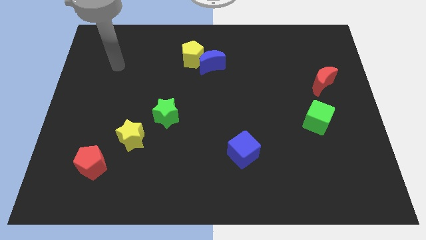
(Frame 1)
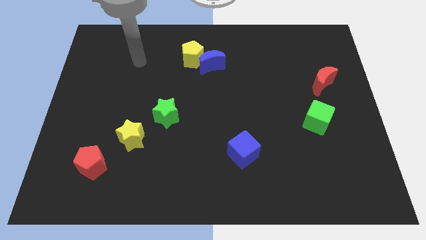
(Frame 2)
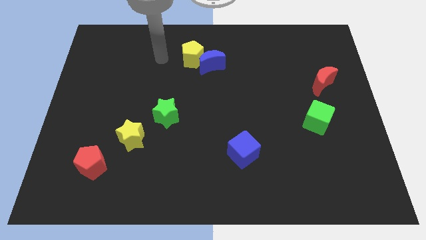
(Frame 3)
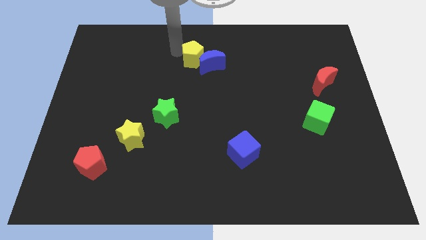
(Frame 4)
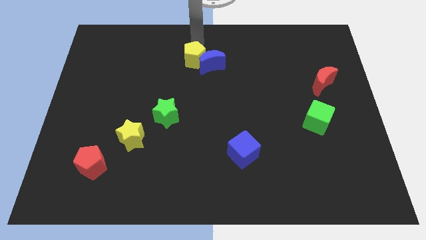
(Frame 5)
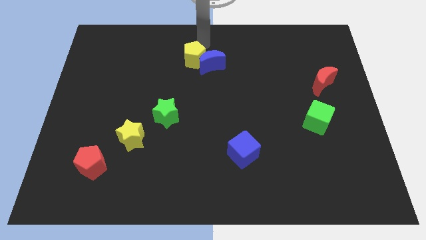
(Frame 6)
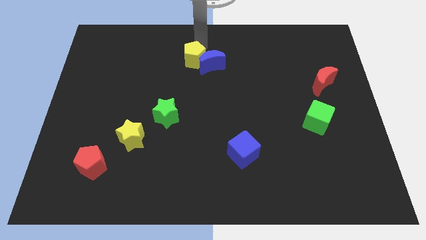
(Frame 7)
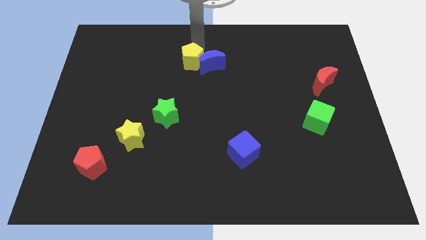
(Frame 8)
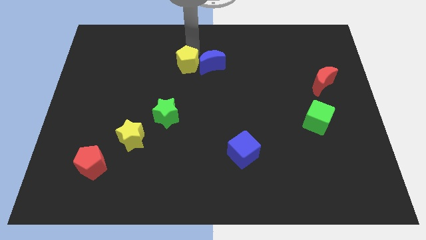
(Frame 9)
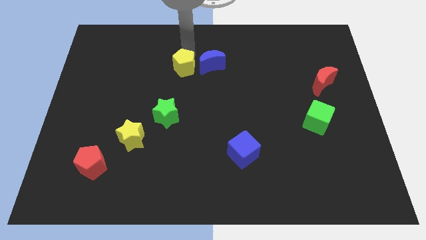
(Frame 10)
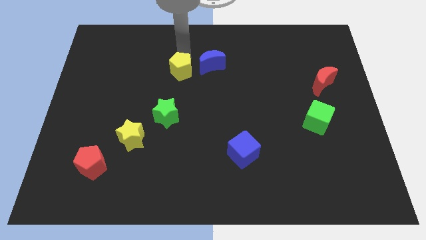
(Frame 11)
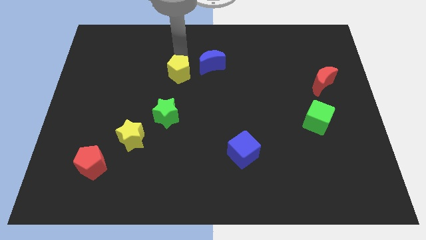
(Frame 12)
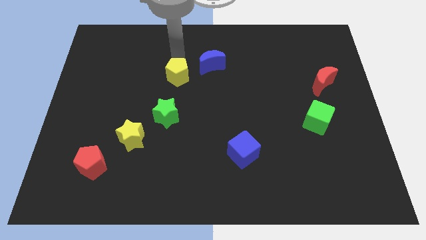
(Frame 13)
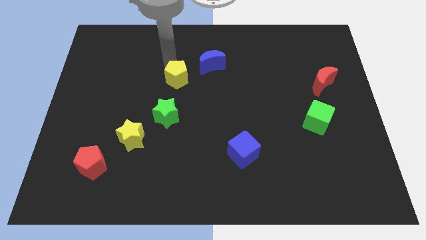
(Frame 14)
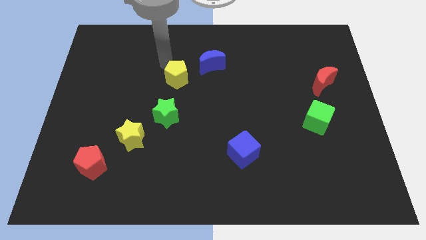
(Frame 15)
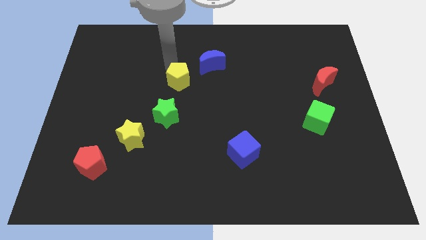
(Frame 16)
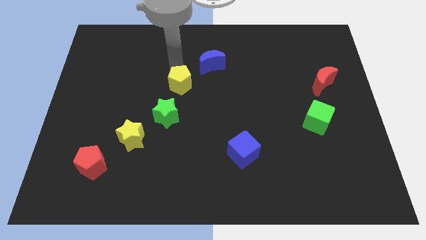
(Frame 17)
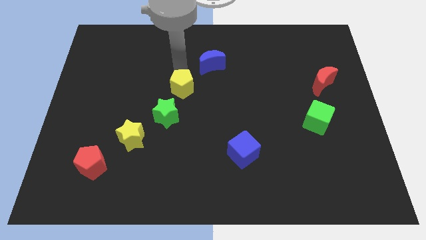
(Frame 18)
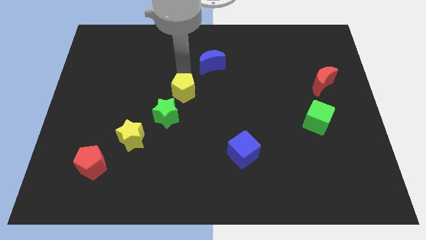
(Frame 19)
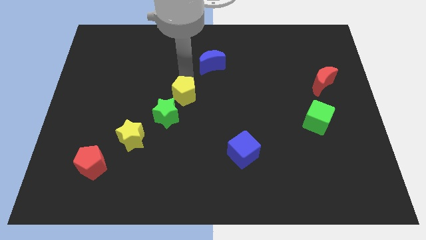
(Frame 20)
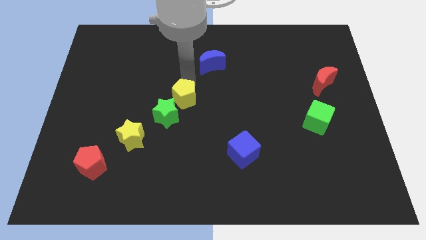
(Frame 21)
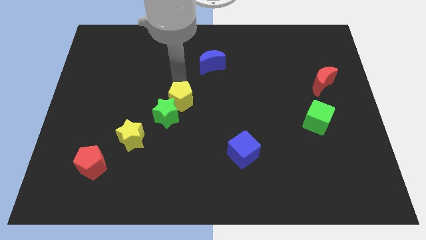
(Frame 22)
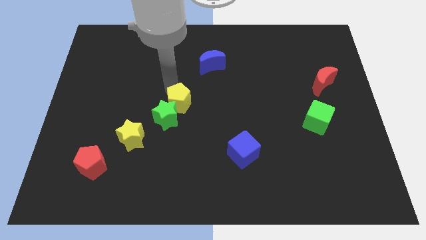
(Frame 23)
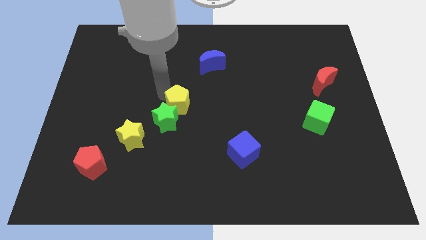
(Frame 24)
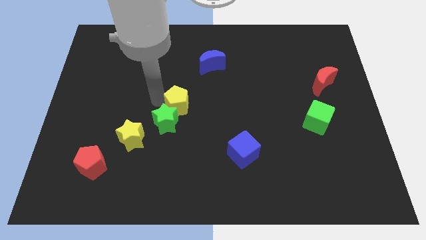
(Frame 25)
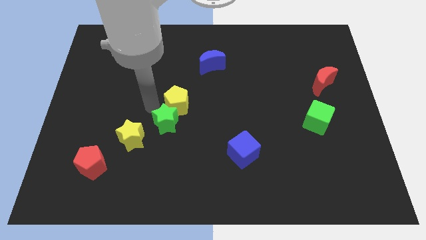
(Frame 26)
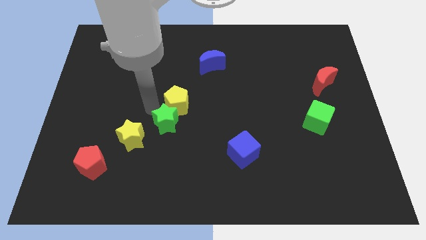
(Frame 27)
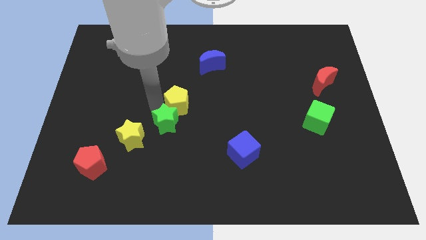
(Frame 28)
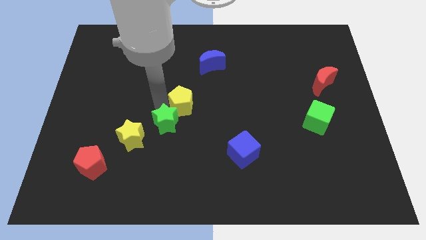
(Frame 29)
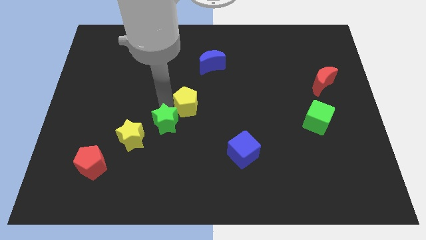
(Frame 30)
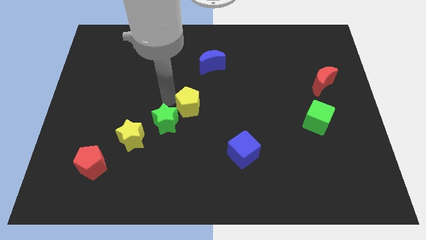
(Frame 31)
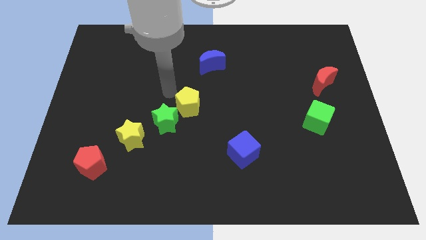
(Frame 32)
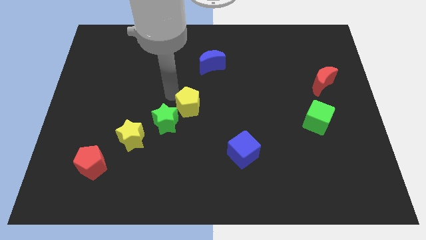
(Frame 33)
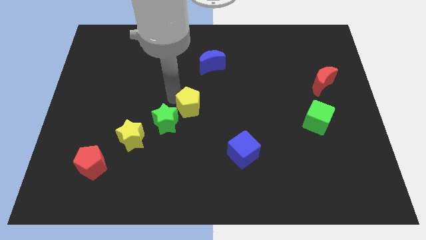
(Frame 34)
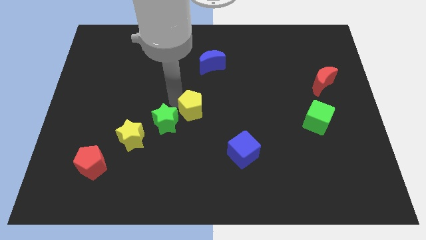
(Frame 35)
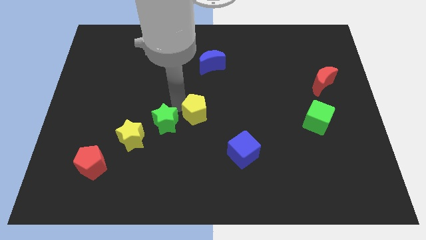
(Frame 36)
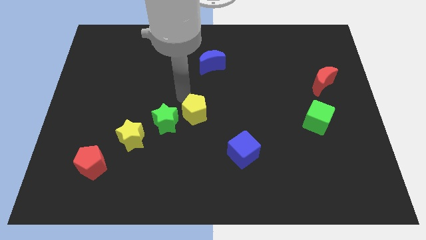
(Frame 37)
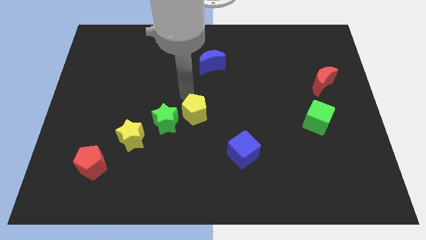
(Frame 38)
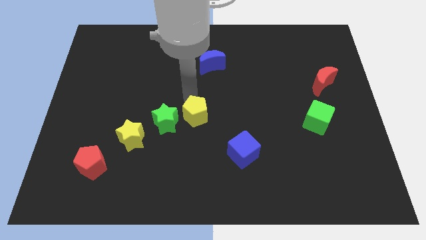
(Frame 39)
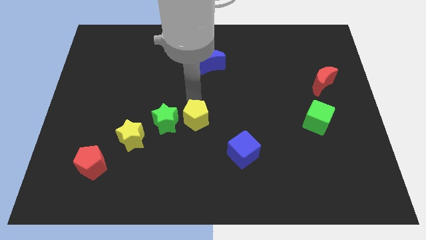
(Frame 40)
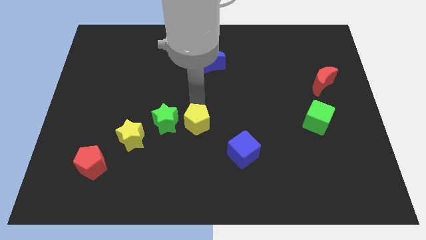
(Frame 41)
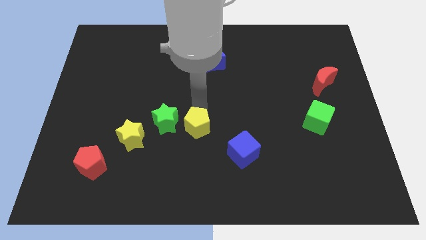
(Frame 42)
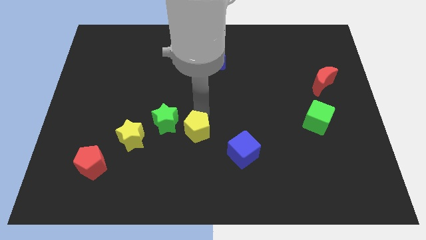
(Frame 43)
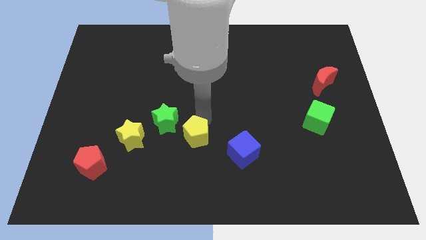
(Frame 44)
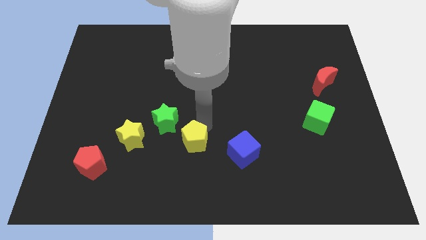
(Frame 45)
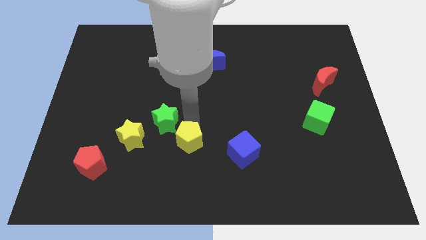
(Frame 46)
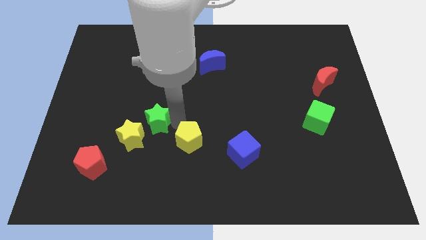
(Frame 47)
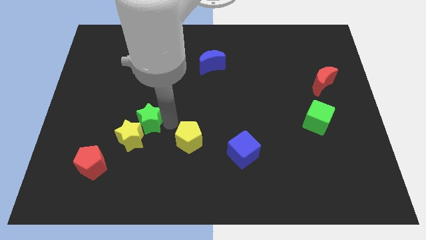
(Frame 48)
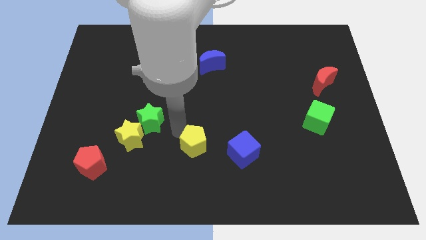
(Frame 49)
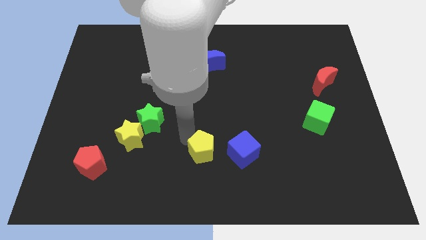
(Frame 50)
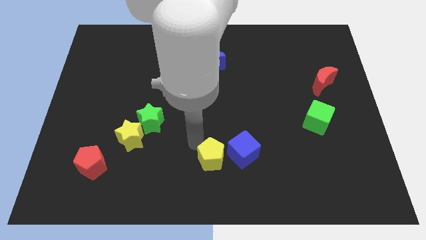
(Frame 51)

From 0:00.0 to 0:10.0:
slide the yellow pentagon to the bottom side

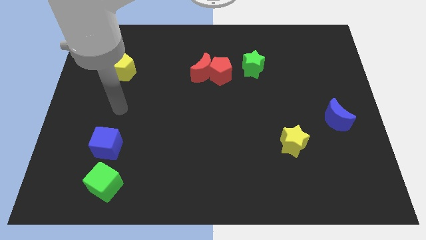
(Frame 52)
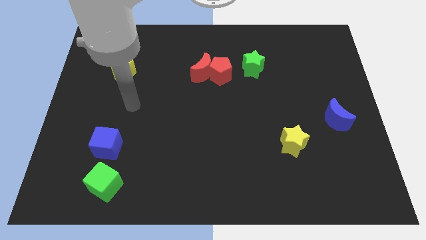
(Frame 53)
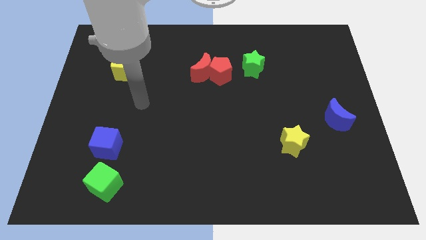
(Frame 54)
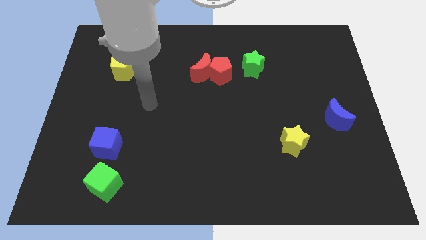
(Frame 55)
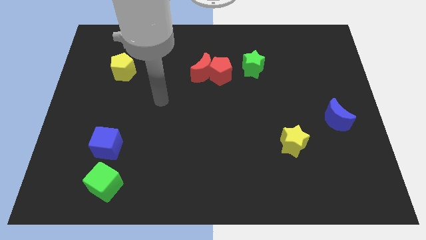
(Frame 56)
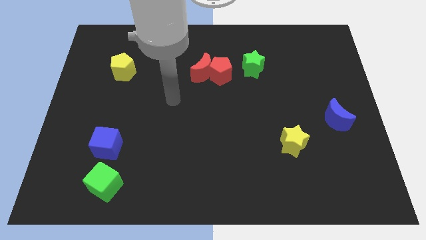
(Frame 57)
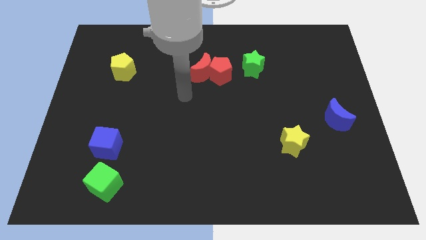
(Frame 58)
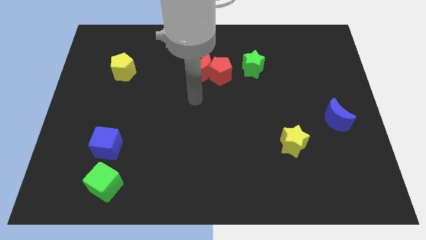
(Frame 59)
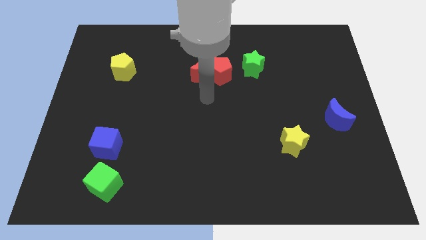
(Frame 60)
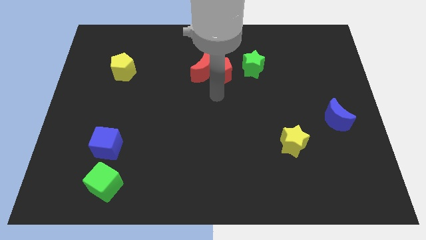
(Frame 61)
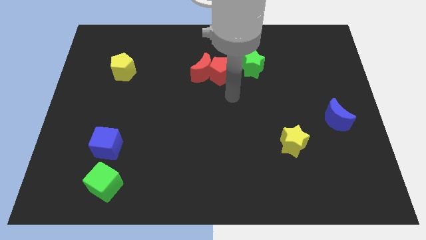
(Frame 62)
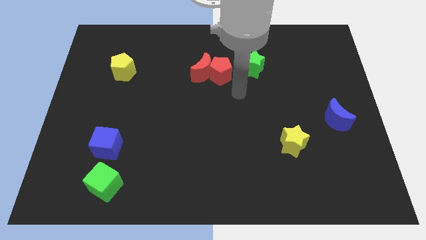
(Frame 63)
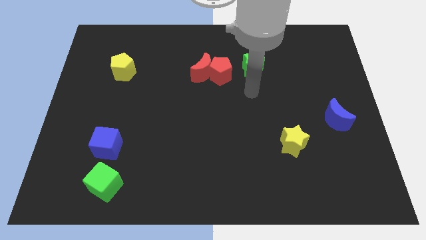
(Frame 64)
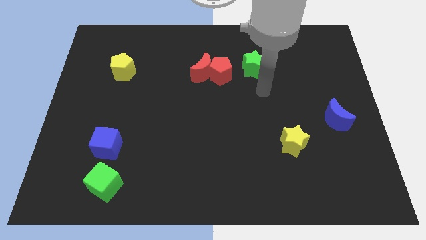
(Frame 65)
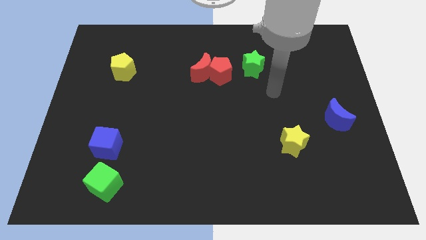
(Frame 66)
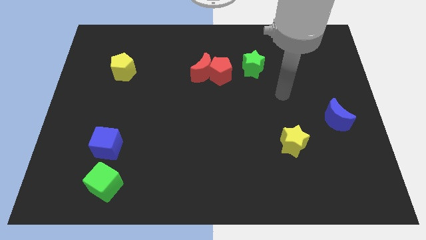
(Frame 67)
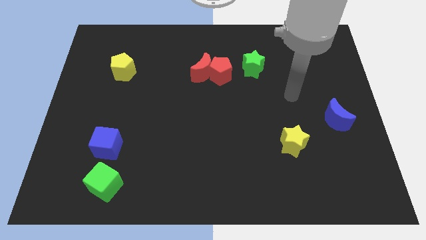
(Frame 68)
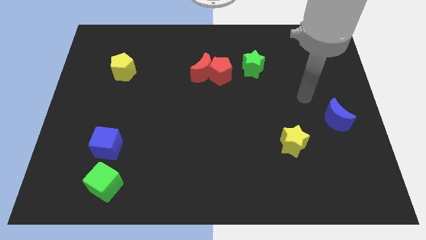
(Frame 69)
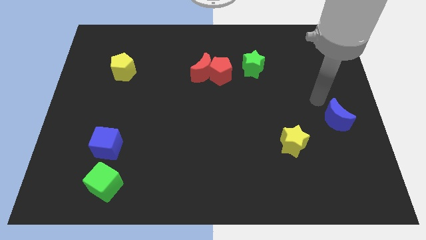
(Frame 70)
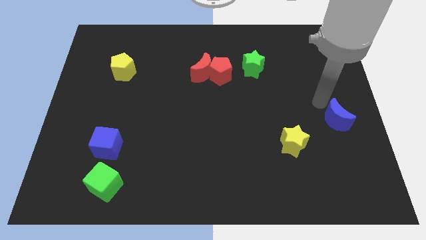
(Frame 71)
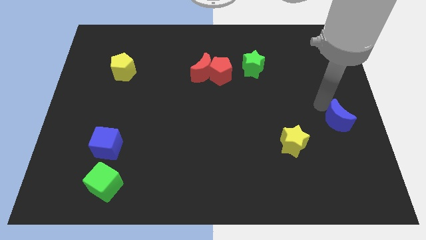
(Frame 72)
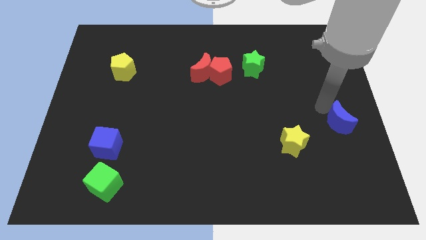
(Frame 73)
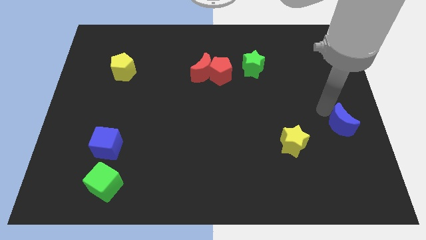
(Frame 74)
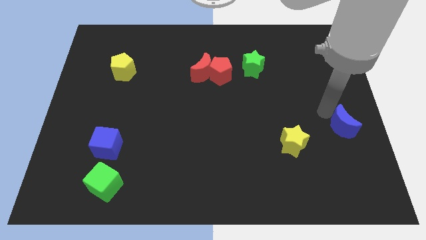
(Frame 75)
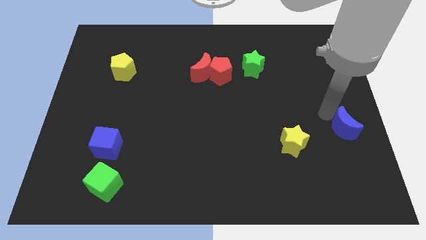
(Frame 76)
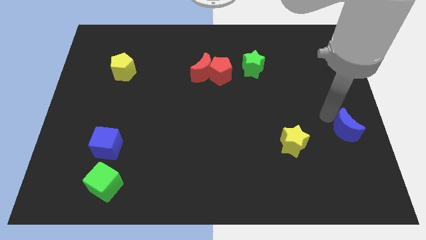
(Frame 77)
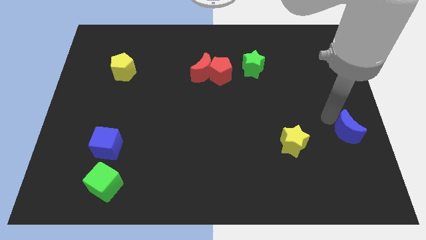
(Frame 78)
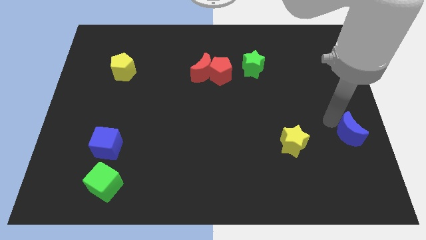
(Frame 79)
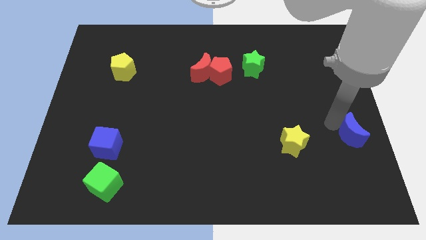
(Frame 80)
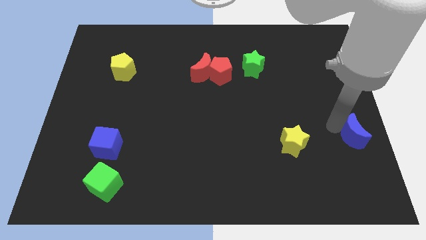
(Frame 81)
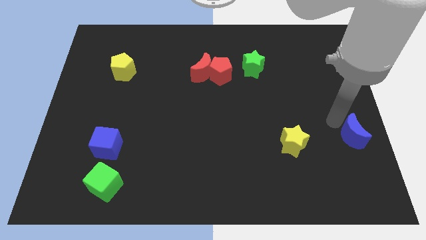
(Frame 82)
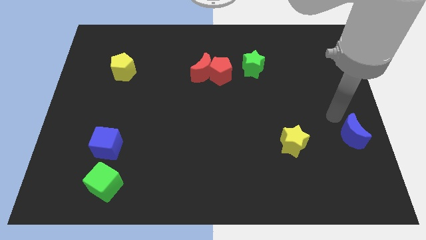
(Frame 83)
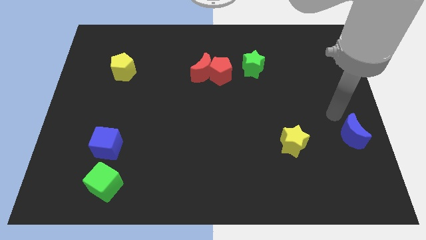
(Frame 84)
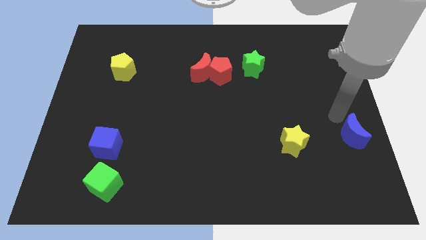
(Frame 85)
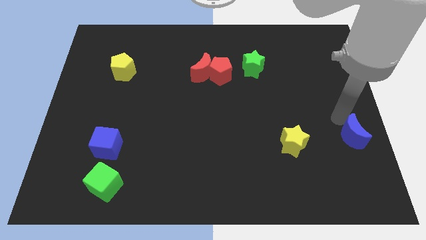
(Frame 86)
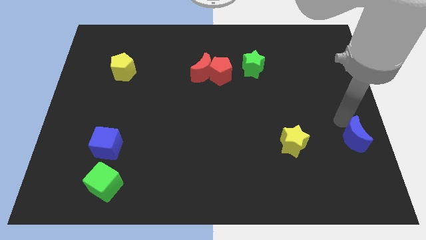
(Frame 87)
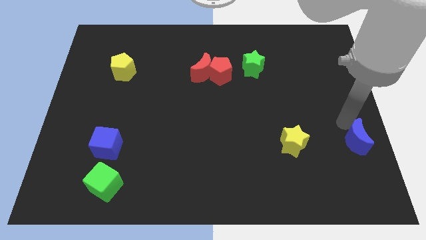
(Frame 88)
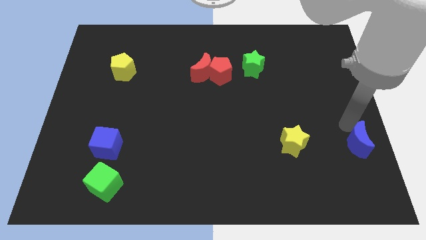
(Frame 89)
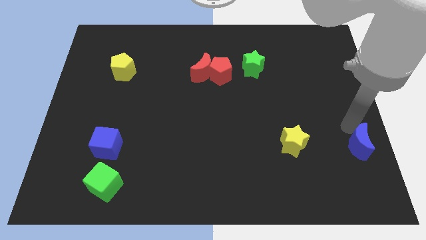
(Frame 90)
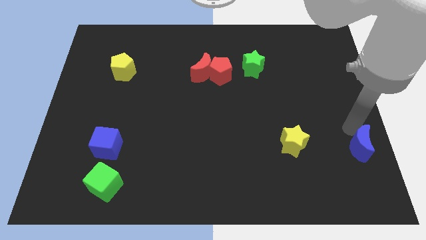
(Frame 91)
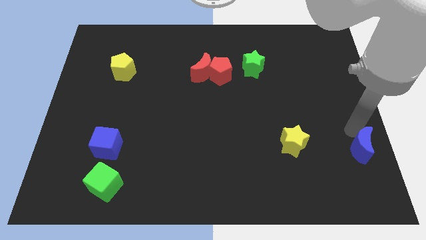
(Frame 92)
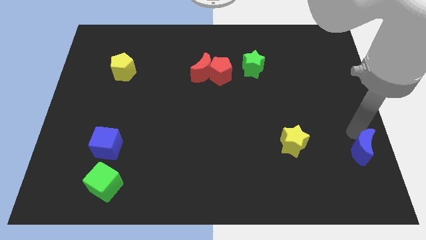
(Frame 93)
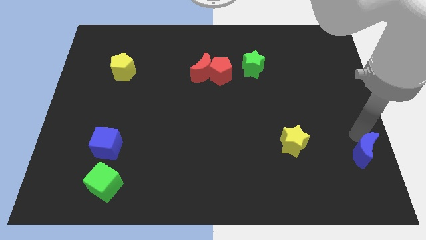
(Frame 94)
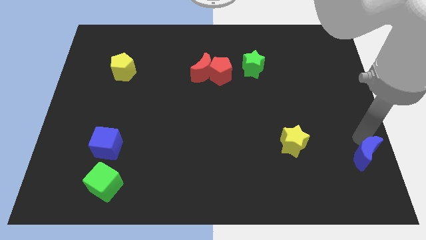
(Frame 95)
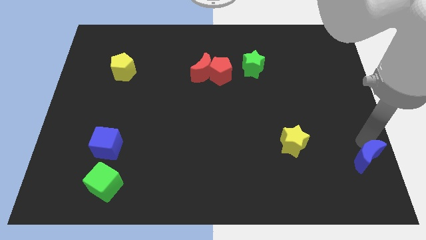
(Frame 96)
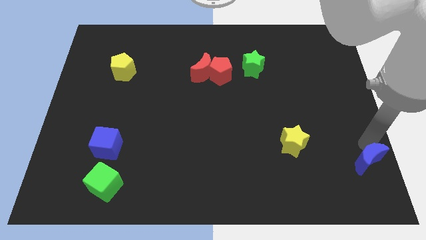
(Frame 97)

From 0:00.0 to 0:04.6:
push the blue moon to the bottom right corner
